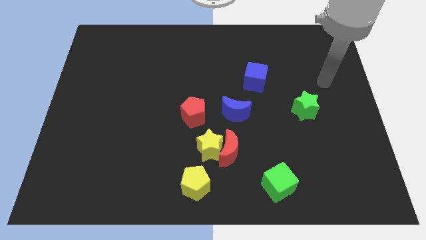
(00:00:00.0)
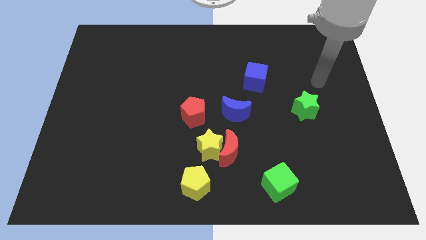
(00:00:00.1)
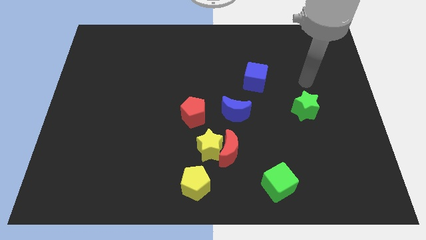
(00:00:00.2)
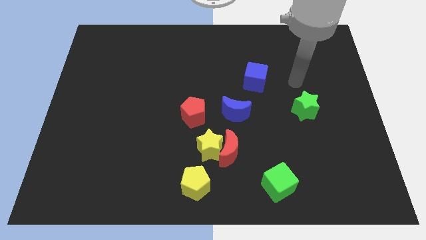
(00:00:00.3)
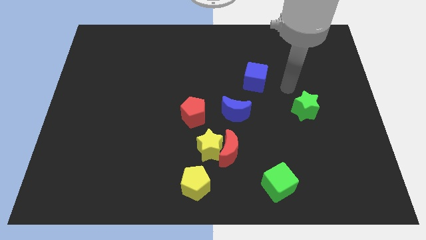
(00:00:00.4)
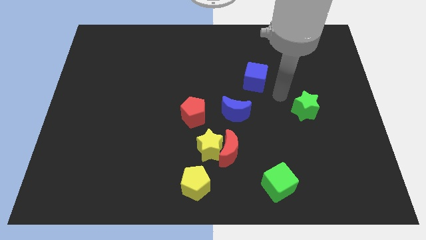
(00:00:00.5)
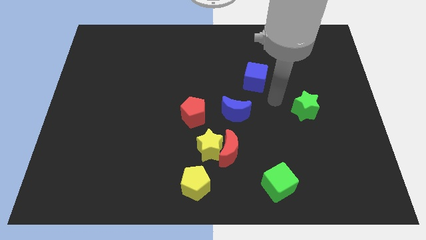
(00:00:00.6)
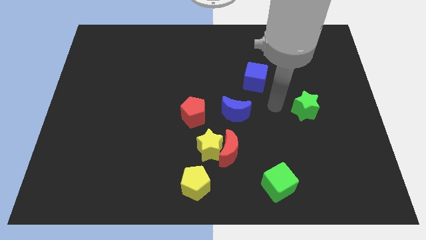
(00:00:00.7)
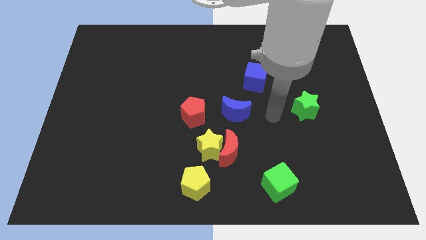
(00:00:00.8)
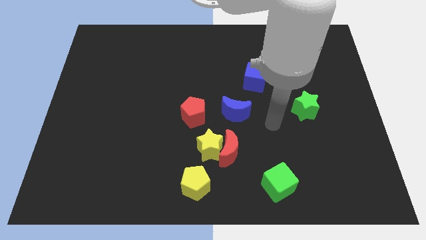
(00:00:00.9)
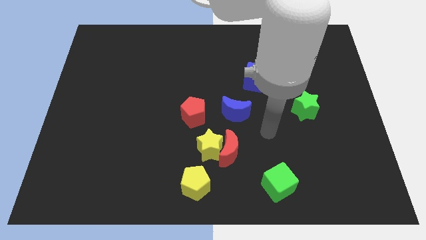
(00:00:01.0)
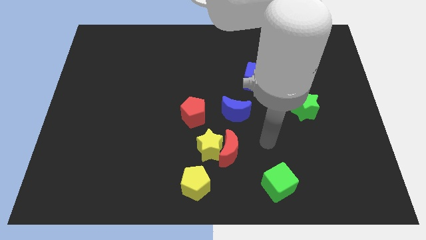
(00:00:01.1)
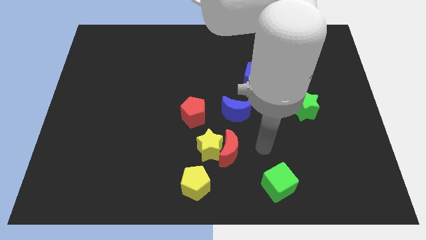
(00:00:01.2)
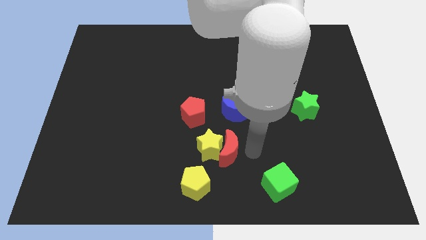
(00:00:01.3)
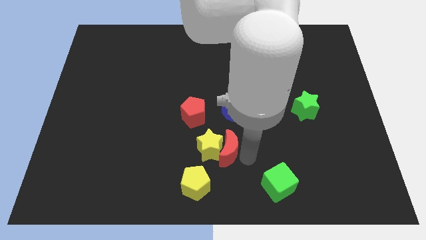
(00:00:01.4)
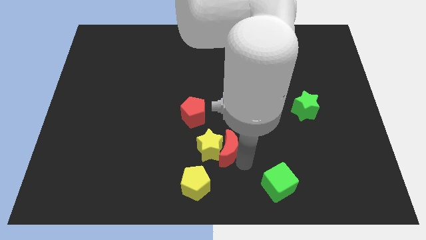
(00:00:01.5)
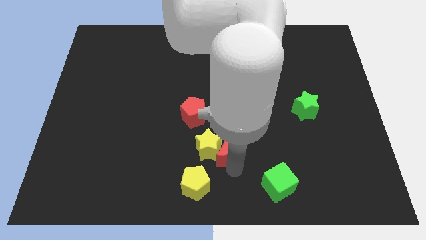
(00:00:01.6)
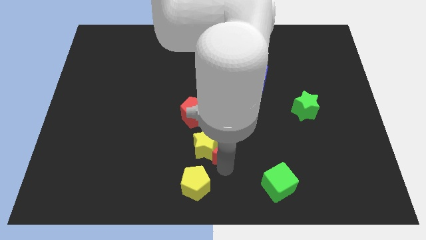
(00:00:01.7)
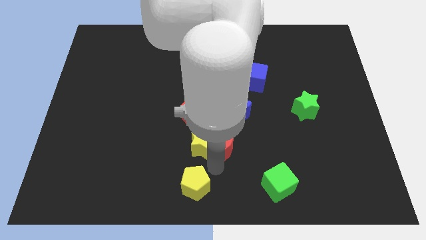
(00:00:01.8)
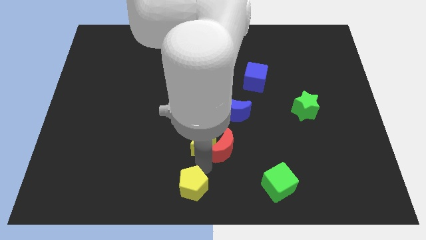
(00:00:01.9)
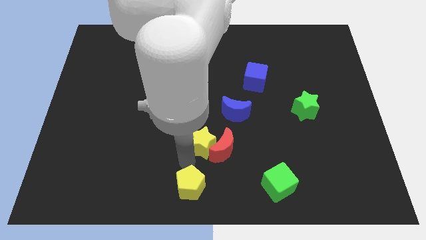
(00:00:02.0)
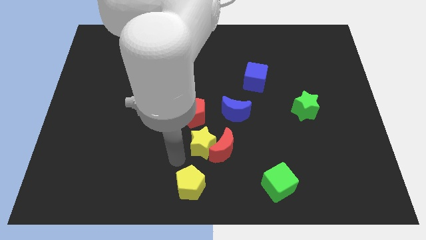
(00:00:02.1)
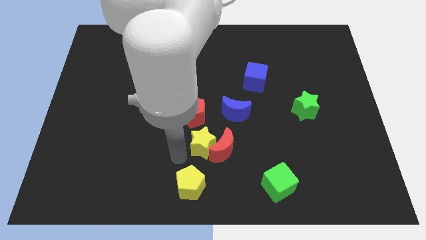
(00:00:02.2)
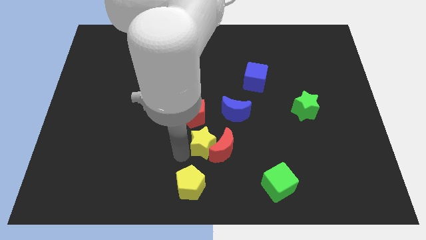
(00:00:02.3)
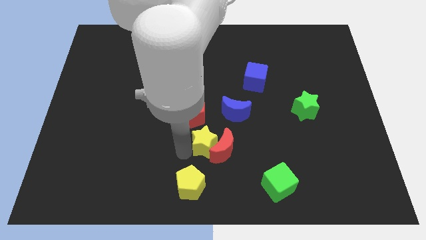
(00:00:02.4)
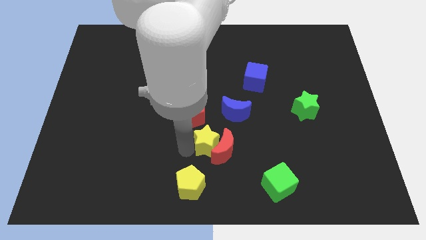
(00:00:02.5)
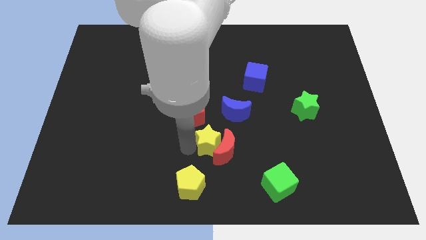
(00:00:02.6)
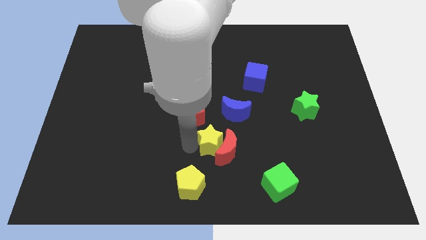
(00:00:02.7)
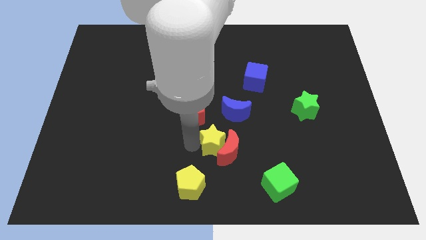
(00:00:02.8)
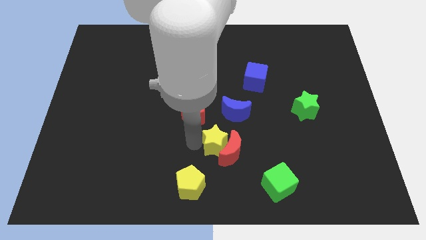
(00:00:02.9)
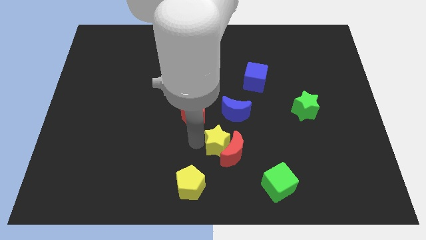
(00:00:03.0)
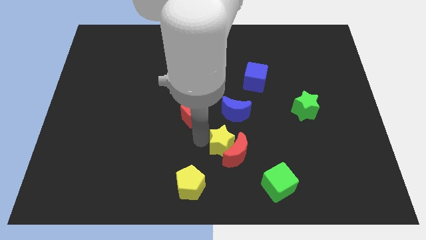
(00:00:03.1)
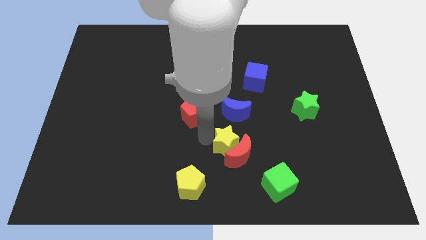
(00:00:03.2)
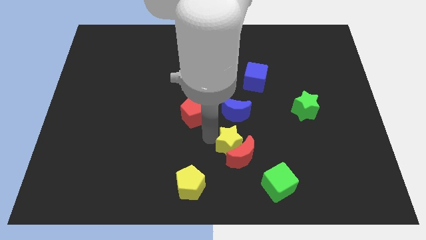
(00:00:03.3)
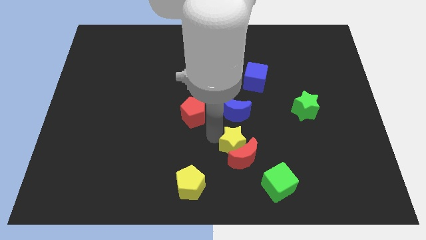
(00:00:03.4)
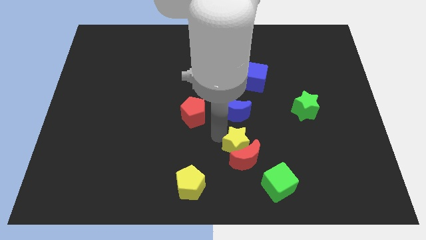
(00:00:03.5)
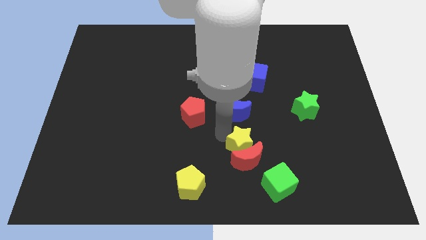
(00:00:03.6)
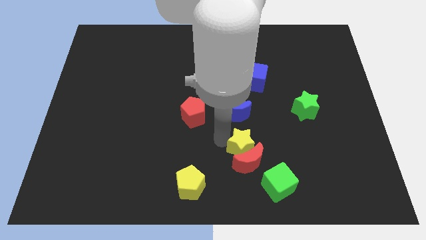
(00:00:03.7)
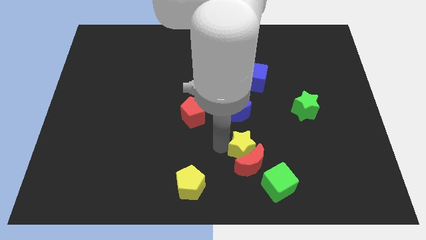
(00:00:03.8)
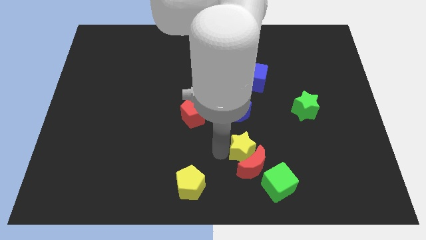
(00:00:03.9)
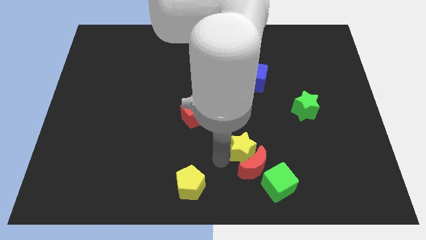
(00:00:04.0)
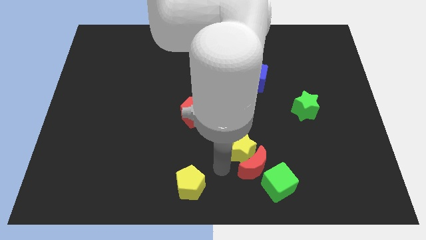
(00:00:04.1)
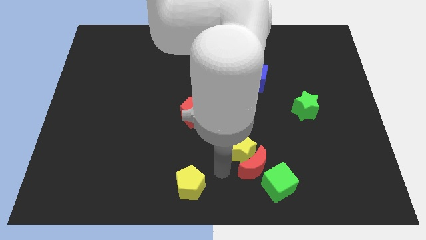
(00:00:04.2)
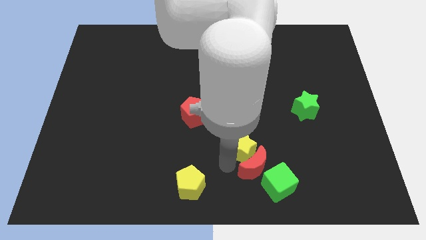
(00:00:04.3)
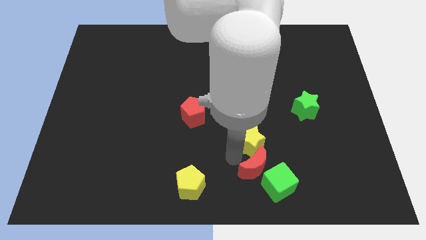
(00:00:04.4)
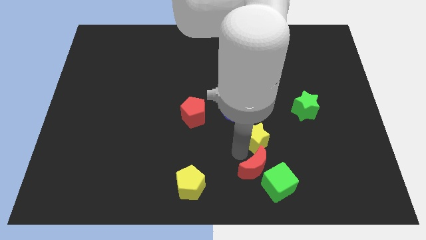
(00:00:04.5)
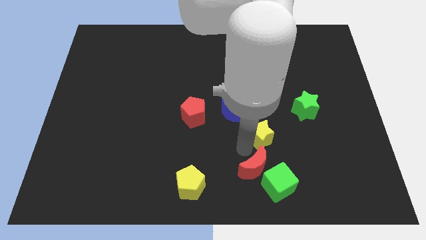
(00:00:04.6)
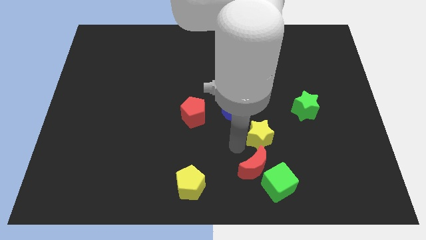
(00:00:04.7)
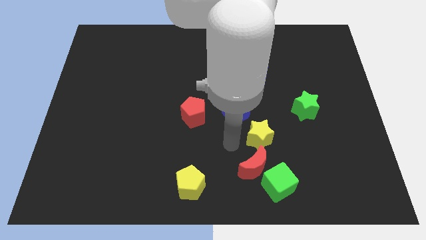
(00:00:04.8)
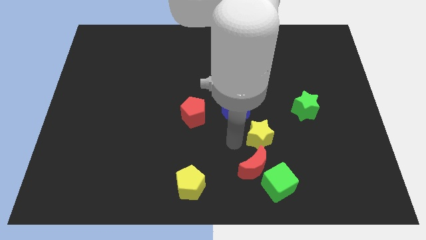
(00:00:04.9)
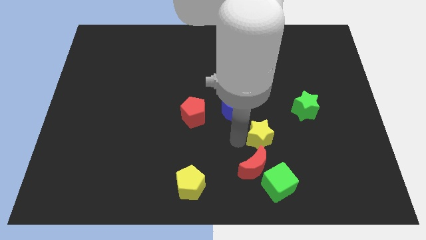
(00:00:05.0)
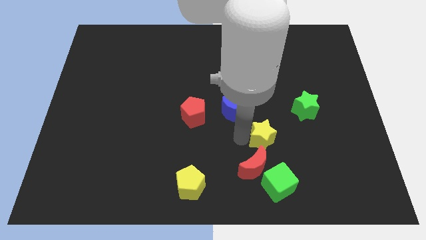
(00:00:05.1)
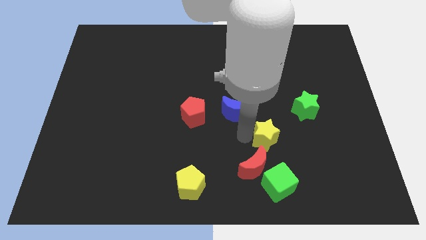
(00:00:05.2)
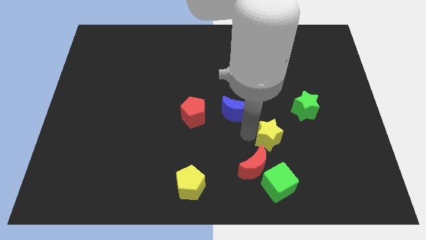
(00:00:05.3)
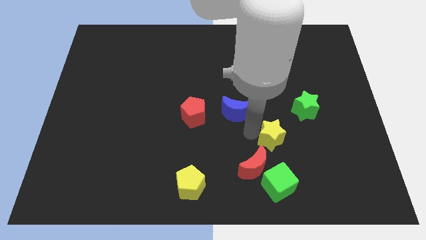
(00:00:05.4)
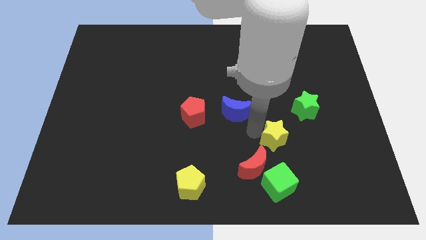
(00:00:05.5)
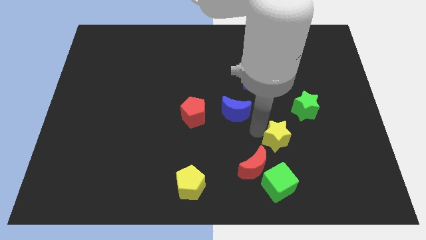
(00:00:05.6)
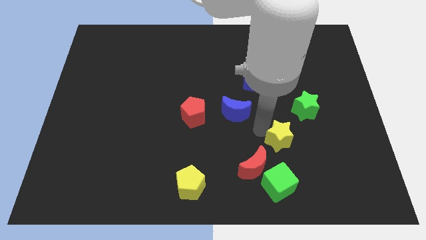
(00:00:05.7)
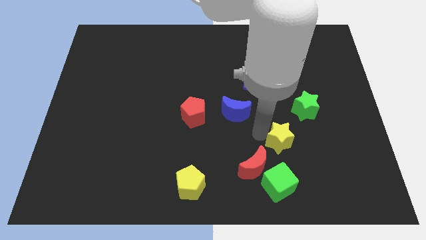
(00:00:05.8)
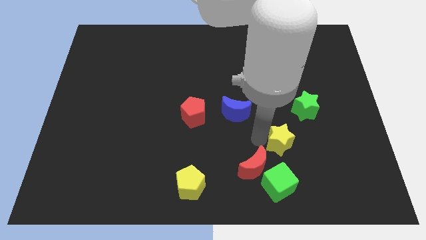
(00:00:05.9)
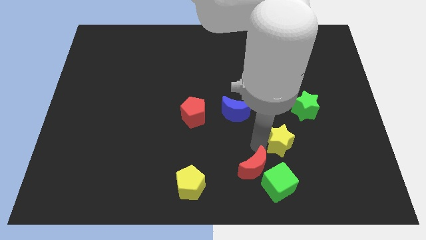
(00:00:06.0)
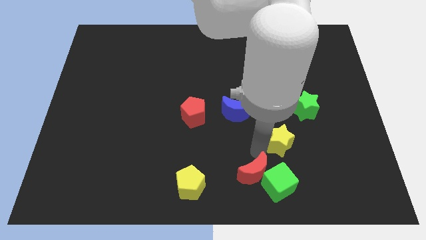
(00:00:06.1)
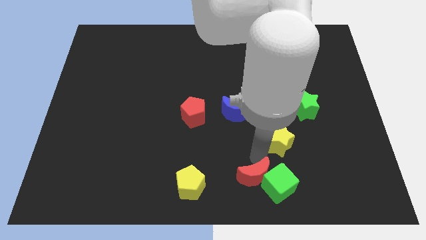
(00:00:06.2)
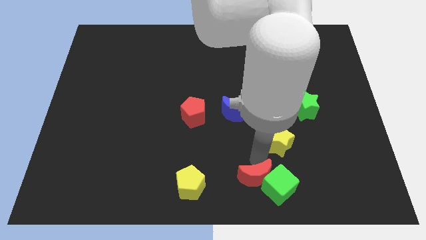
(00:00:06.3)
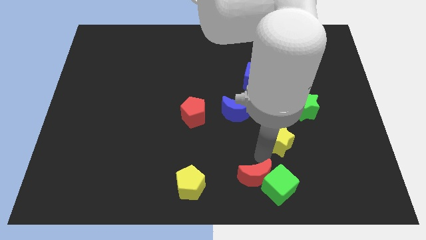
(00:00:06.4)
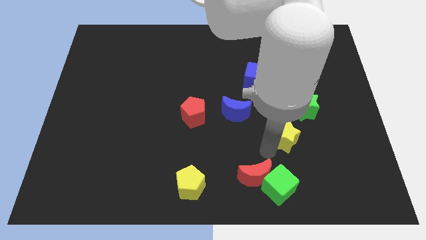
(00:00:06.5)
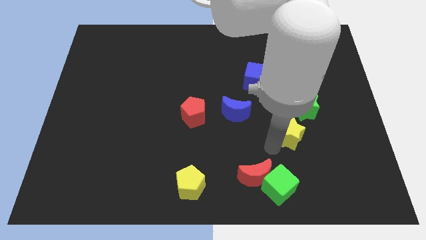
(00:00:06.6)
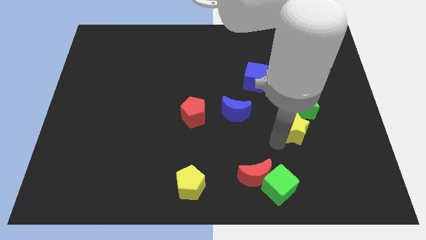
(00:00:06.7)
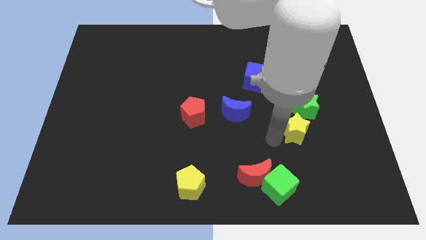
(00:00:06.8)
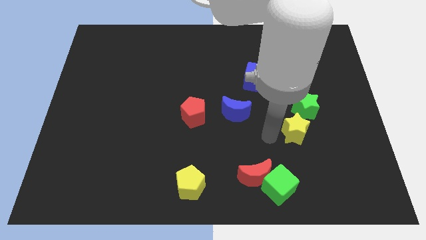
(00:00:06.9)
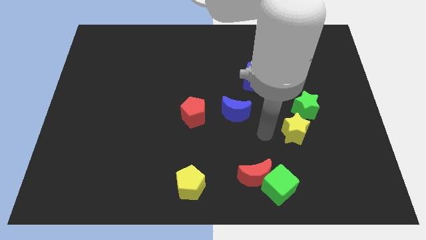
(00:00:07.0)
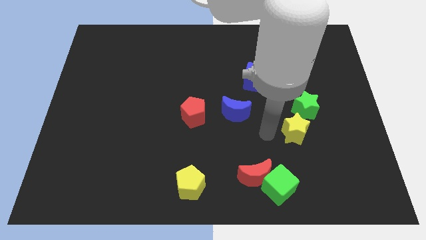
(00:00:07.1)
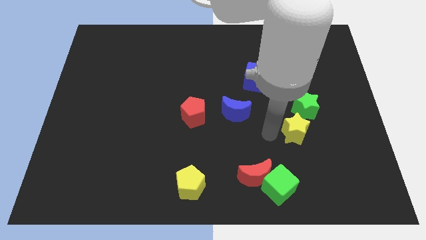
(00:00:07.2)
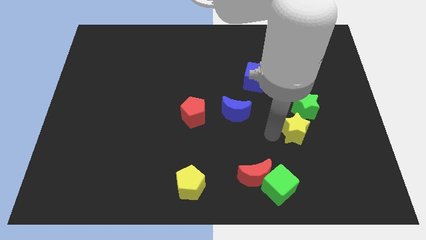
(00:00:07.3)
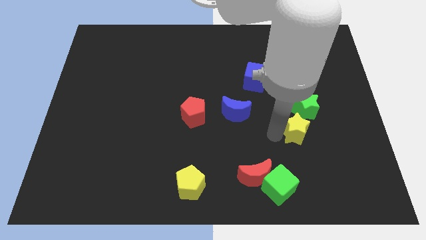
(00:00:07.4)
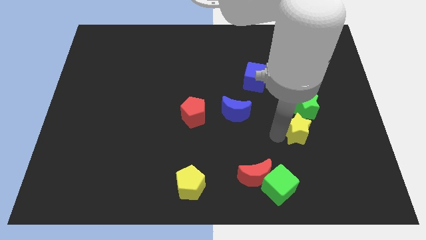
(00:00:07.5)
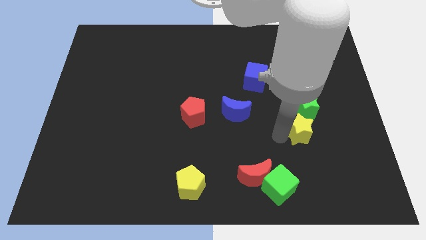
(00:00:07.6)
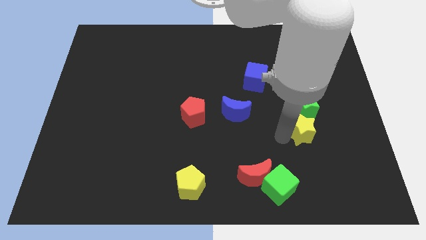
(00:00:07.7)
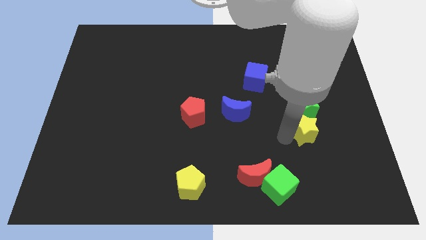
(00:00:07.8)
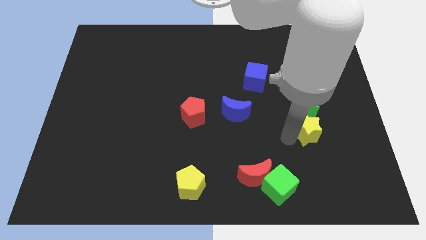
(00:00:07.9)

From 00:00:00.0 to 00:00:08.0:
move the yellow star diagonally down and to the right of the green star
